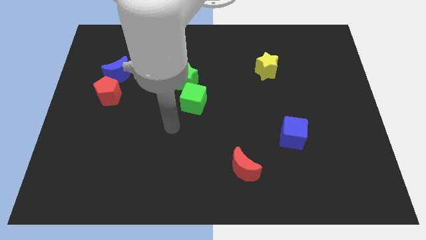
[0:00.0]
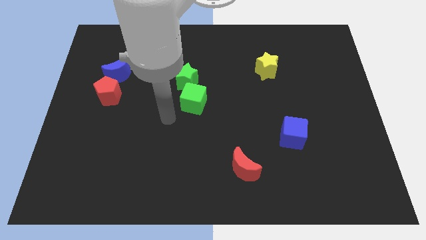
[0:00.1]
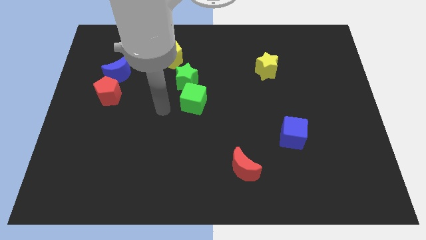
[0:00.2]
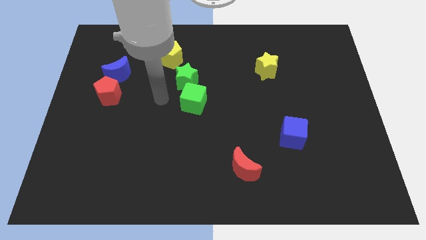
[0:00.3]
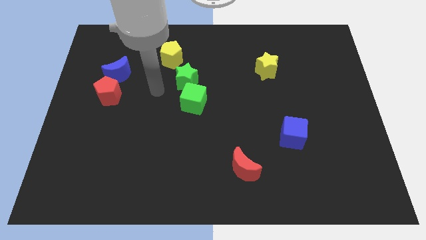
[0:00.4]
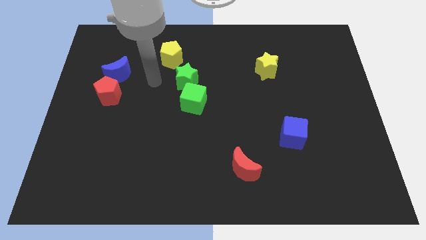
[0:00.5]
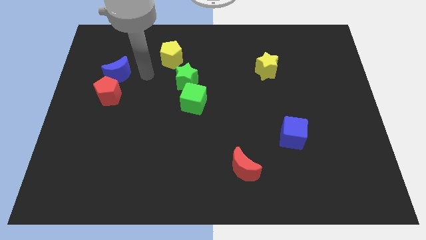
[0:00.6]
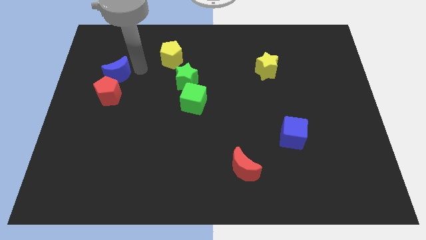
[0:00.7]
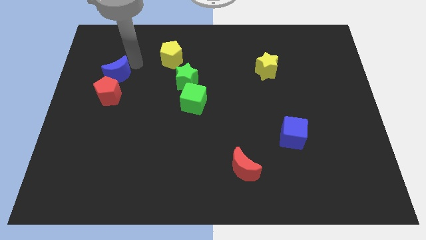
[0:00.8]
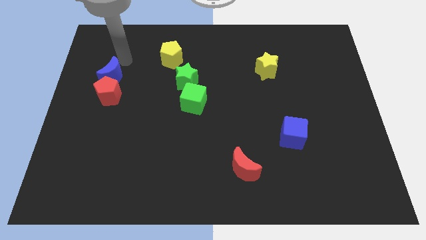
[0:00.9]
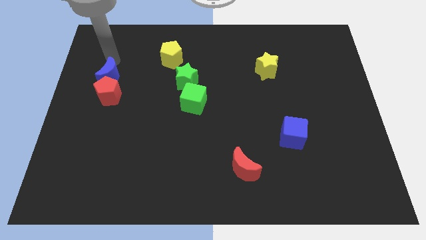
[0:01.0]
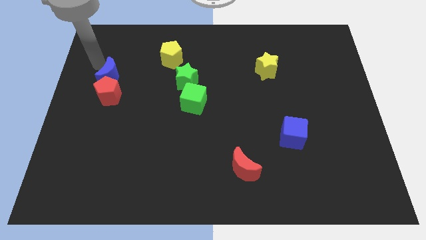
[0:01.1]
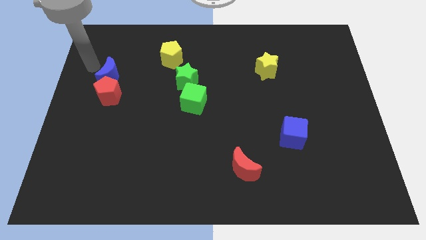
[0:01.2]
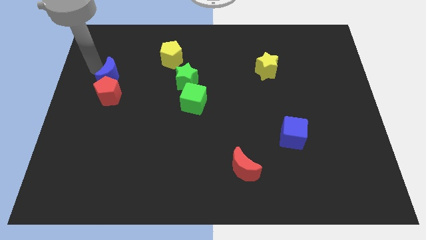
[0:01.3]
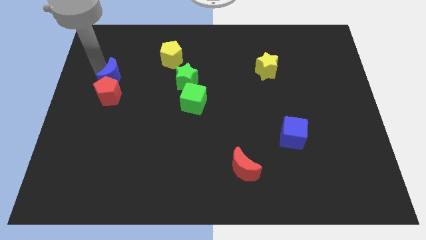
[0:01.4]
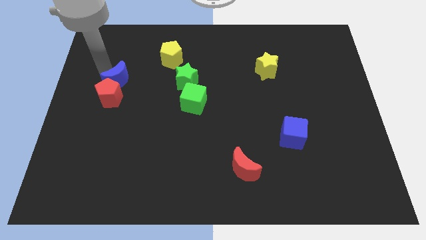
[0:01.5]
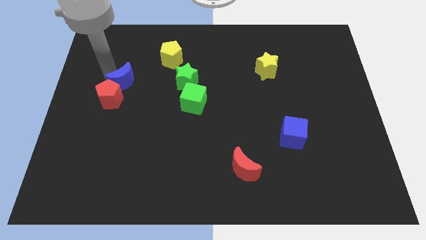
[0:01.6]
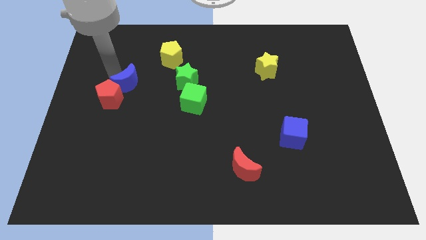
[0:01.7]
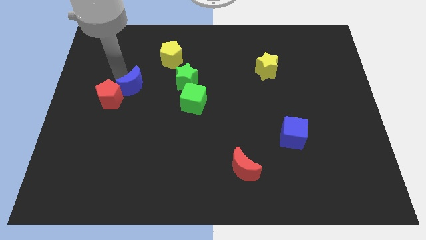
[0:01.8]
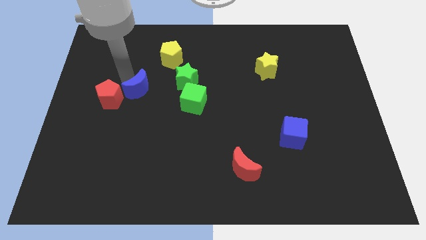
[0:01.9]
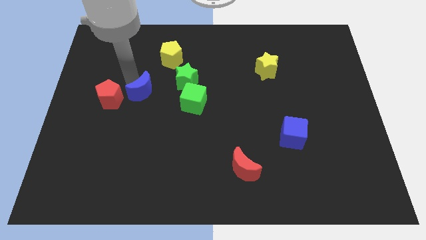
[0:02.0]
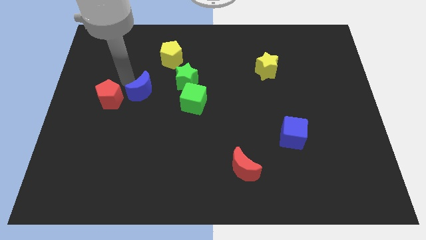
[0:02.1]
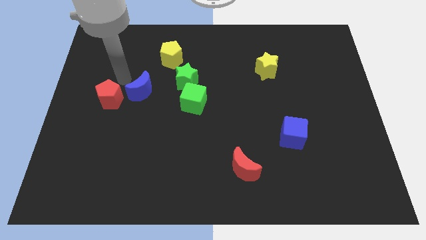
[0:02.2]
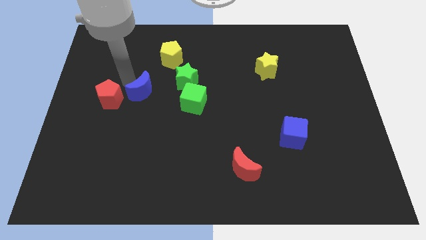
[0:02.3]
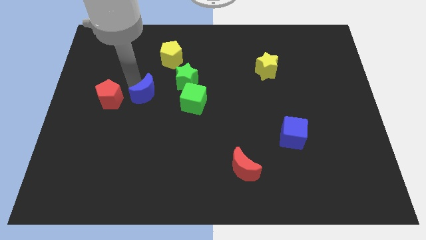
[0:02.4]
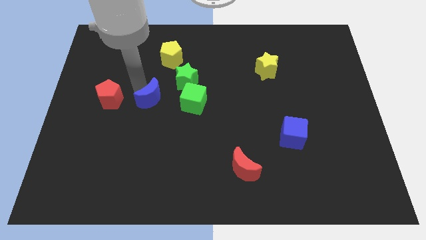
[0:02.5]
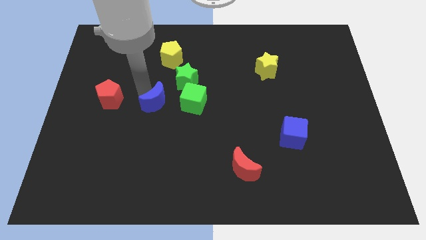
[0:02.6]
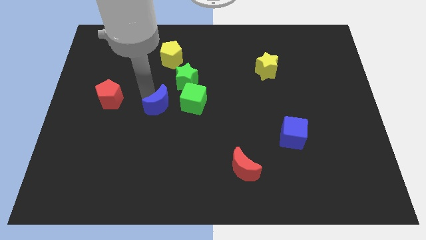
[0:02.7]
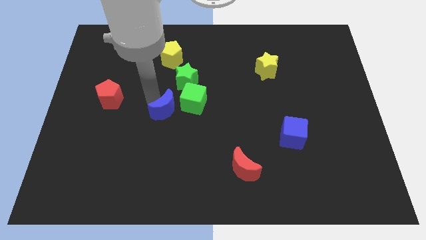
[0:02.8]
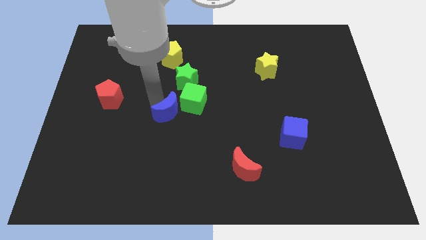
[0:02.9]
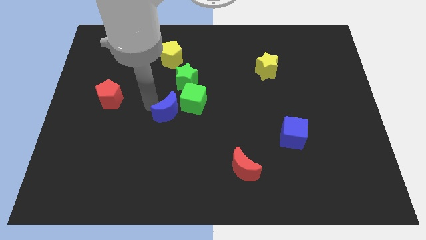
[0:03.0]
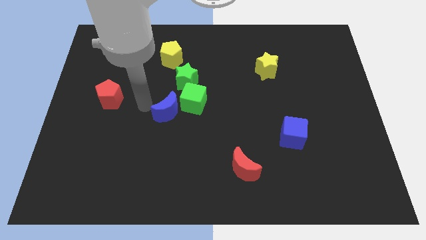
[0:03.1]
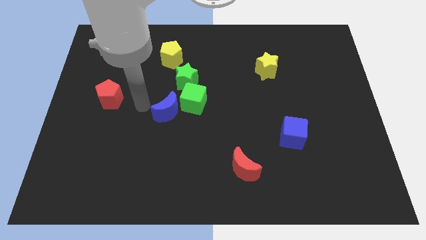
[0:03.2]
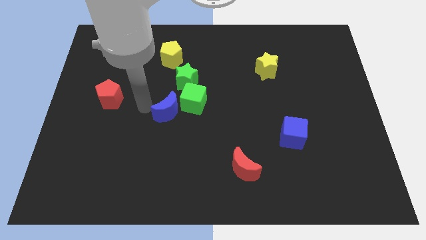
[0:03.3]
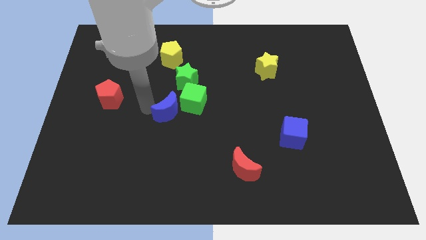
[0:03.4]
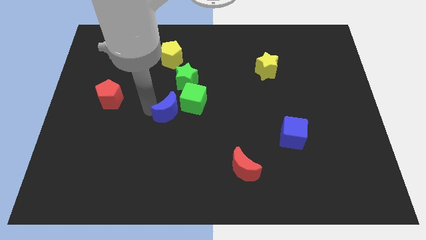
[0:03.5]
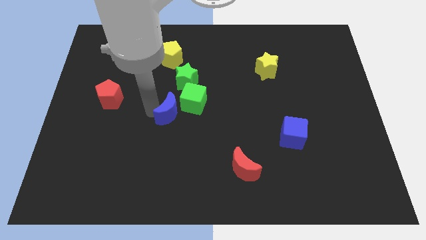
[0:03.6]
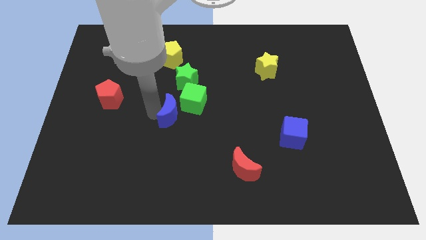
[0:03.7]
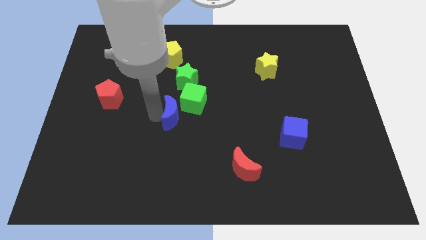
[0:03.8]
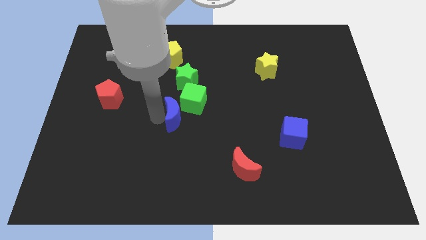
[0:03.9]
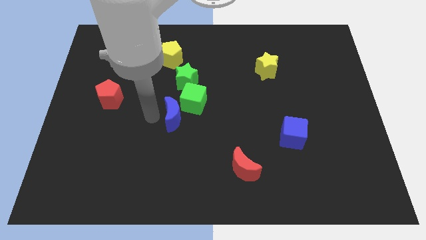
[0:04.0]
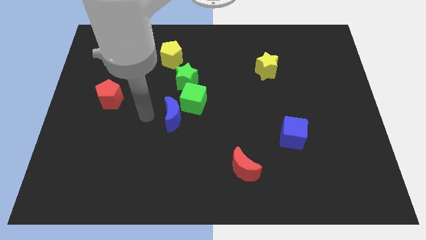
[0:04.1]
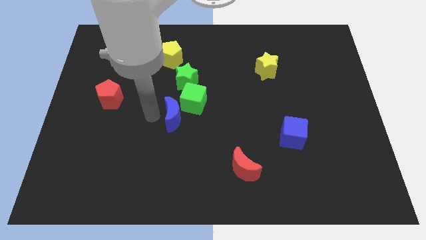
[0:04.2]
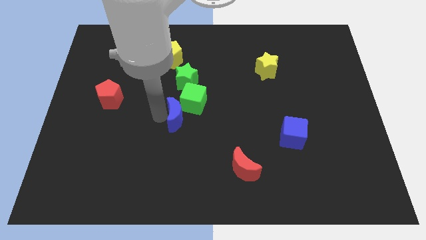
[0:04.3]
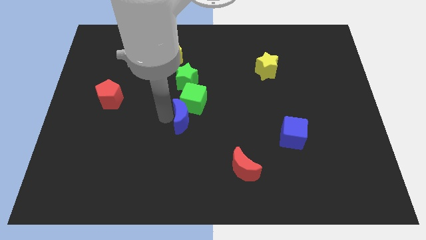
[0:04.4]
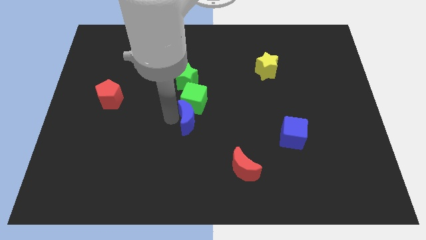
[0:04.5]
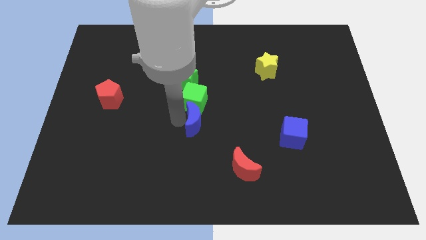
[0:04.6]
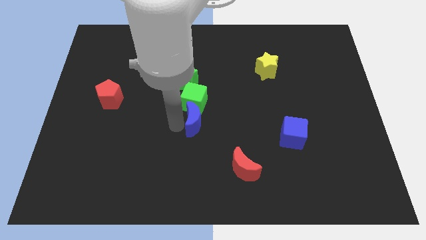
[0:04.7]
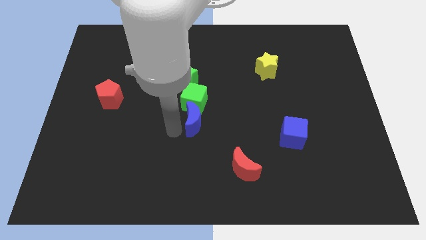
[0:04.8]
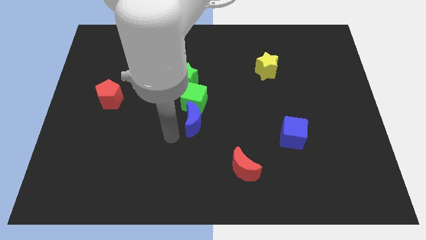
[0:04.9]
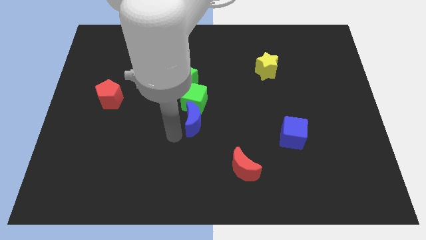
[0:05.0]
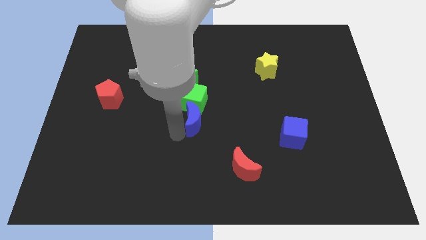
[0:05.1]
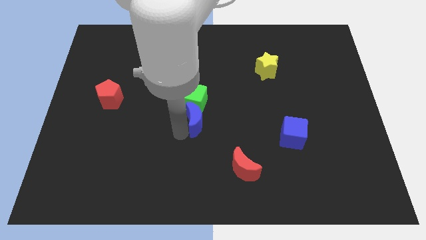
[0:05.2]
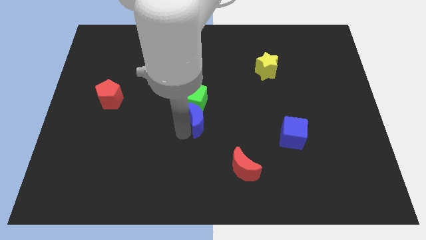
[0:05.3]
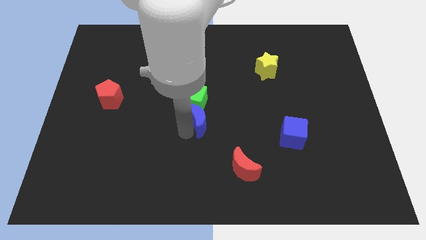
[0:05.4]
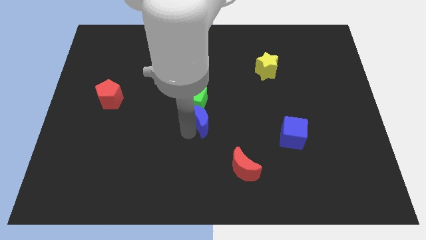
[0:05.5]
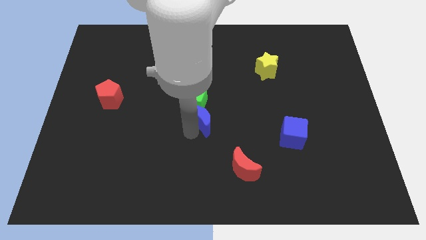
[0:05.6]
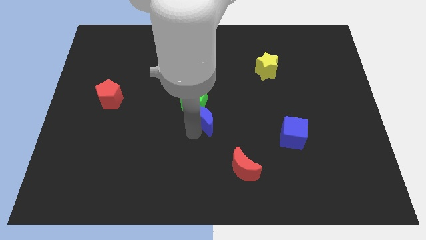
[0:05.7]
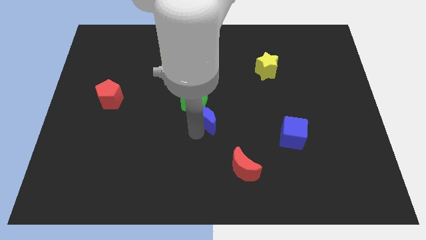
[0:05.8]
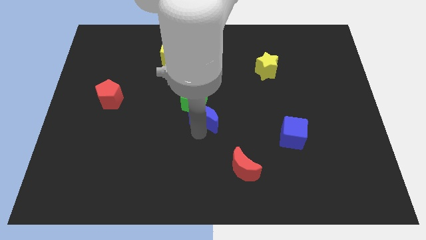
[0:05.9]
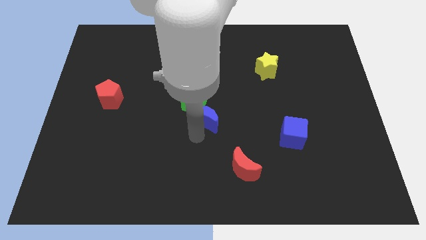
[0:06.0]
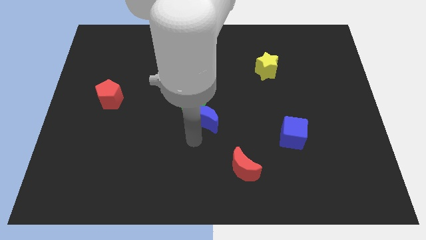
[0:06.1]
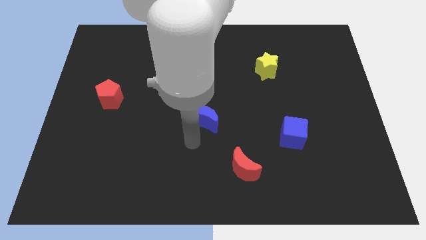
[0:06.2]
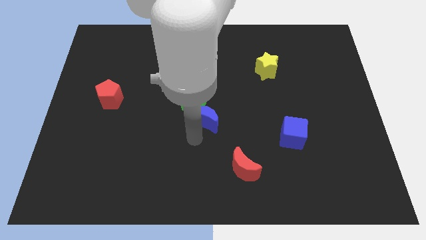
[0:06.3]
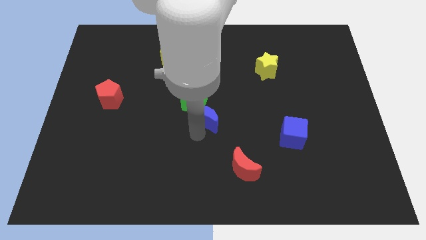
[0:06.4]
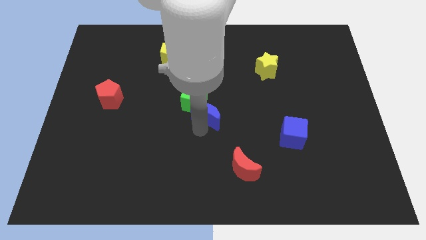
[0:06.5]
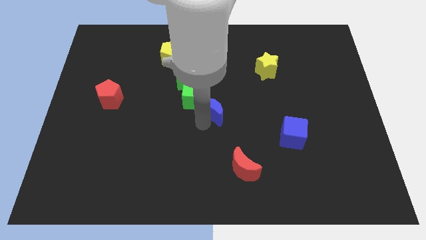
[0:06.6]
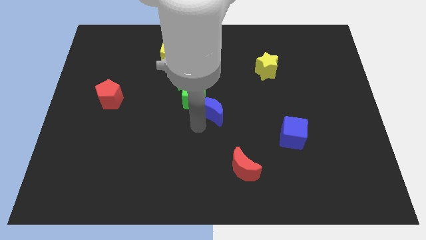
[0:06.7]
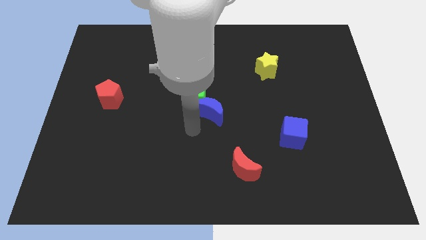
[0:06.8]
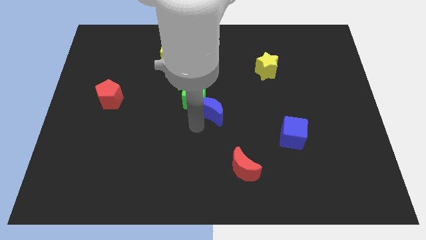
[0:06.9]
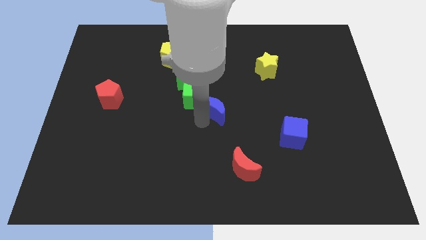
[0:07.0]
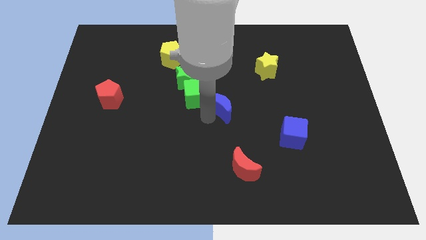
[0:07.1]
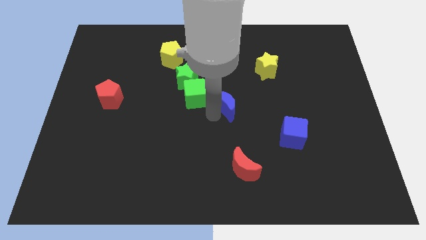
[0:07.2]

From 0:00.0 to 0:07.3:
slide the blue moon right

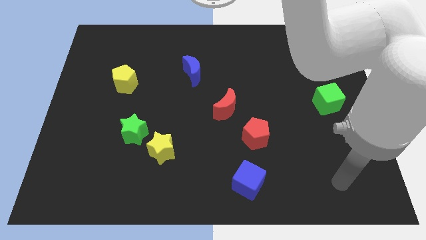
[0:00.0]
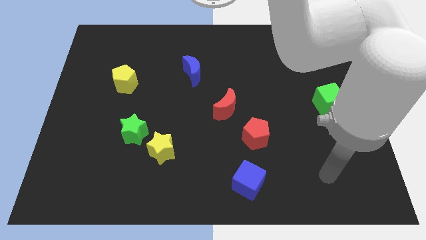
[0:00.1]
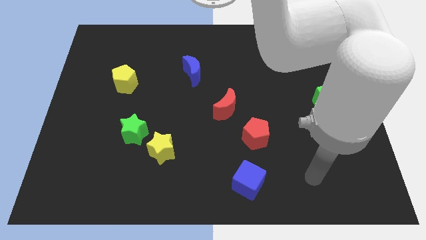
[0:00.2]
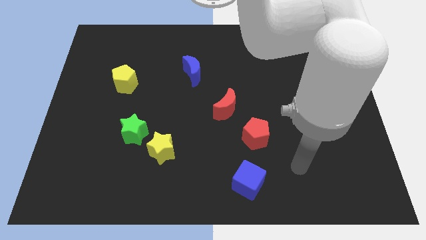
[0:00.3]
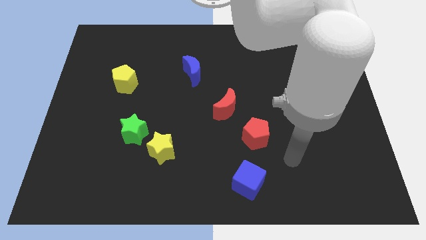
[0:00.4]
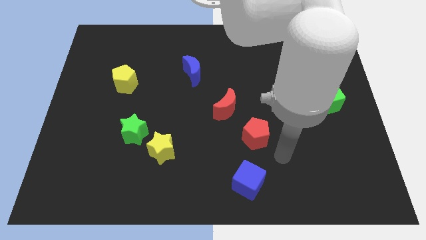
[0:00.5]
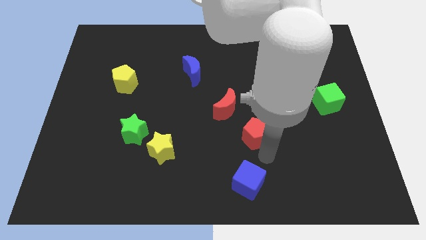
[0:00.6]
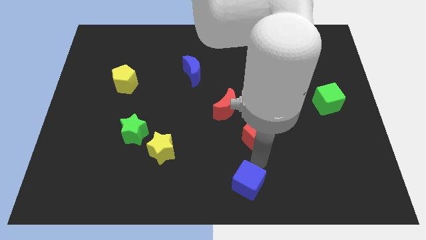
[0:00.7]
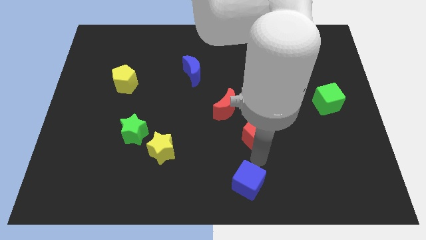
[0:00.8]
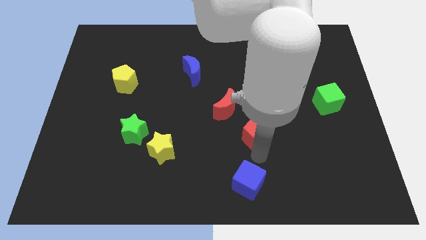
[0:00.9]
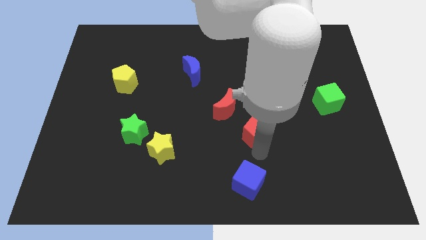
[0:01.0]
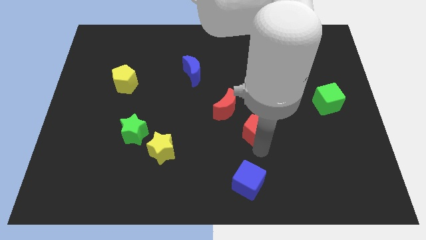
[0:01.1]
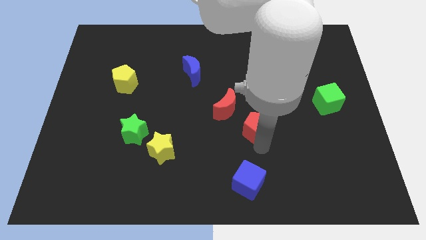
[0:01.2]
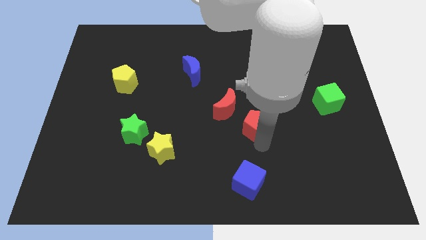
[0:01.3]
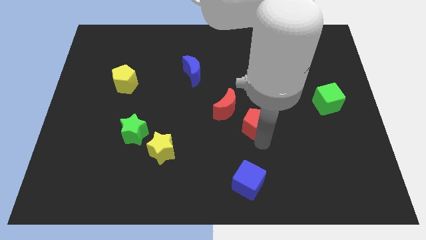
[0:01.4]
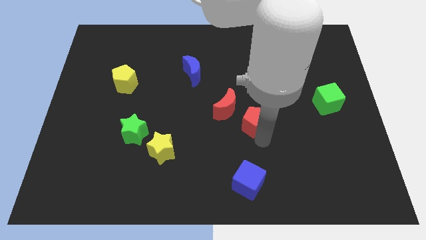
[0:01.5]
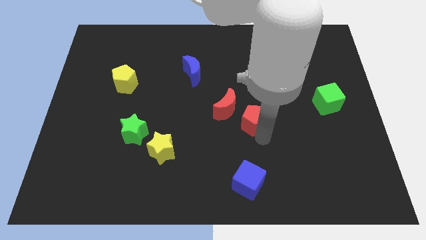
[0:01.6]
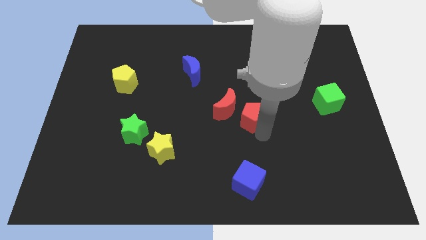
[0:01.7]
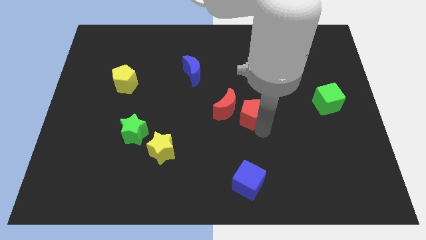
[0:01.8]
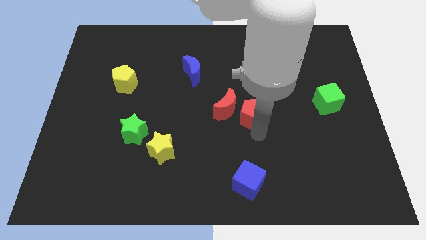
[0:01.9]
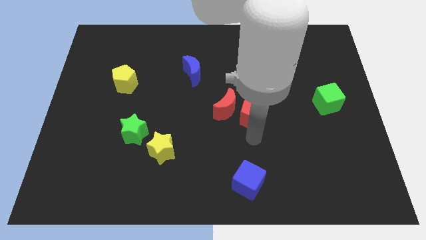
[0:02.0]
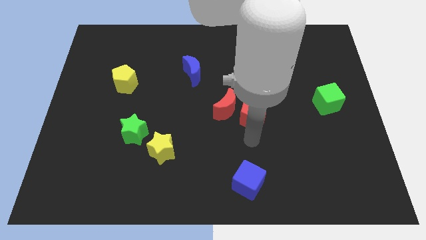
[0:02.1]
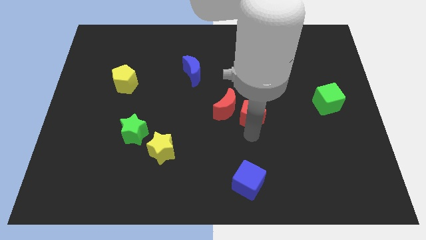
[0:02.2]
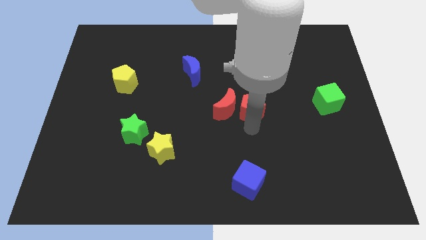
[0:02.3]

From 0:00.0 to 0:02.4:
push the red pentagon upwards a little bit
